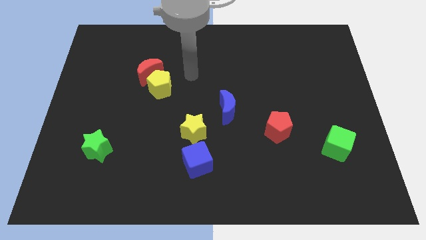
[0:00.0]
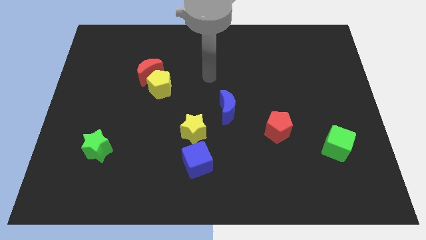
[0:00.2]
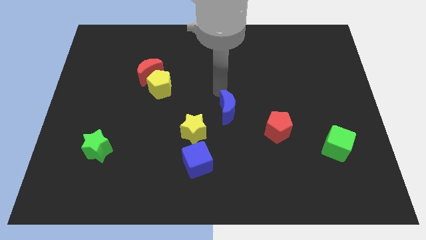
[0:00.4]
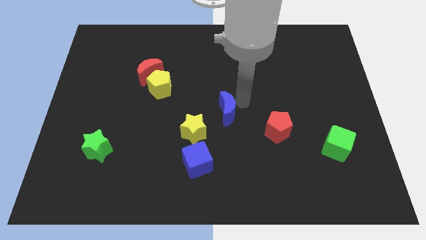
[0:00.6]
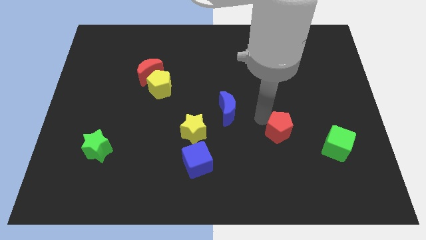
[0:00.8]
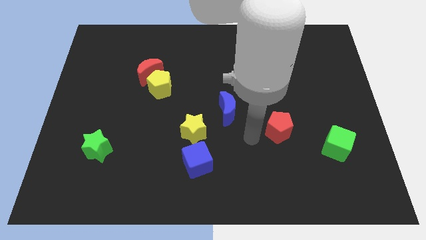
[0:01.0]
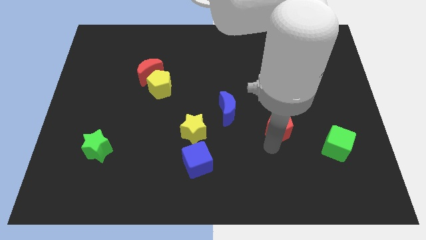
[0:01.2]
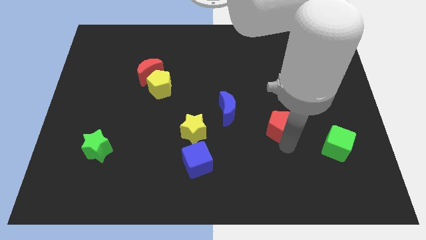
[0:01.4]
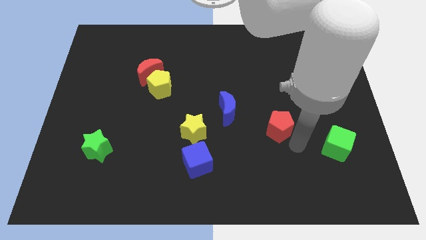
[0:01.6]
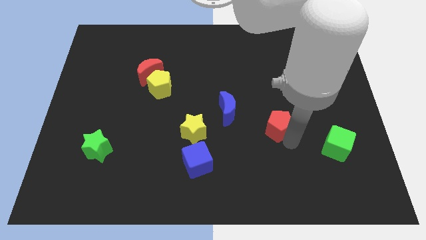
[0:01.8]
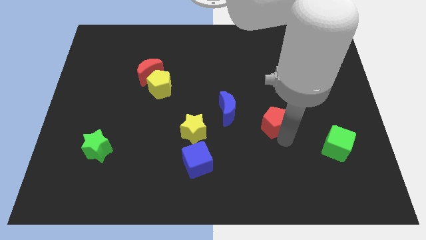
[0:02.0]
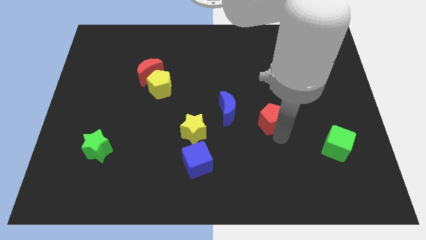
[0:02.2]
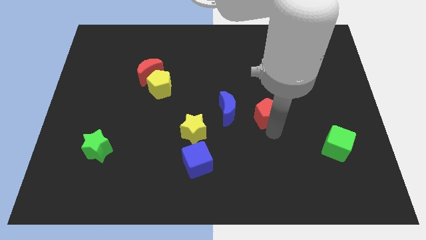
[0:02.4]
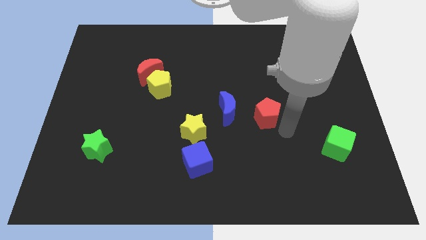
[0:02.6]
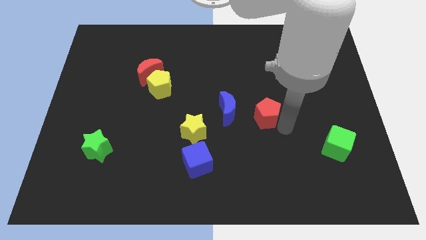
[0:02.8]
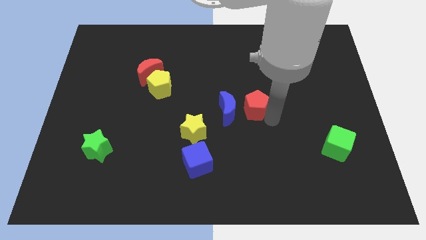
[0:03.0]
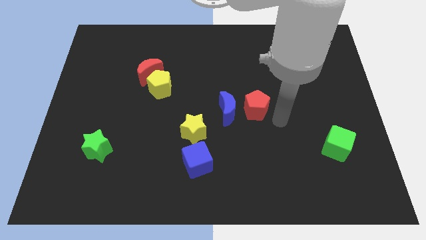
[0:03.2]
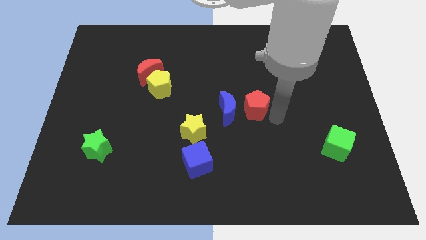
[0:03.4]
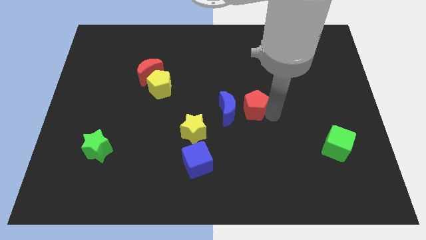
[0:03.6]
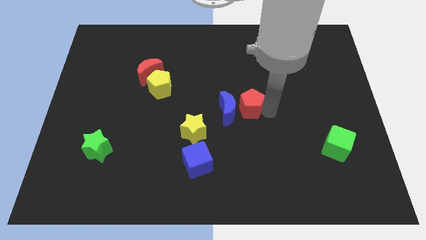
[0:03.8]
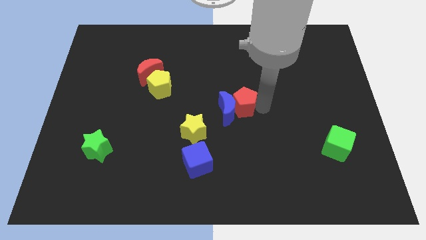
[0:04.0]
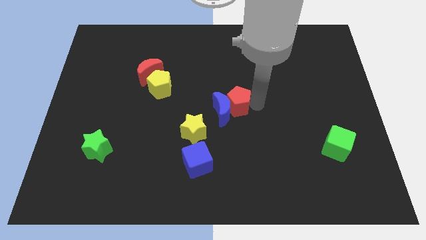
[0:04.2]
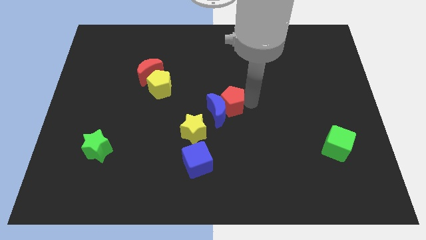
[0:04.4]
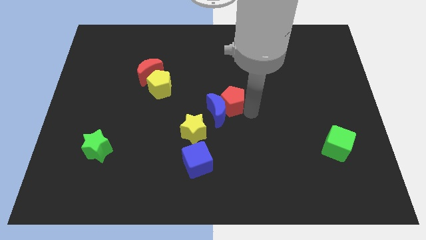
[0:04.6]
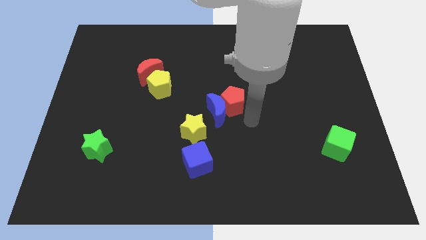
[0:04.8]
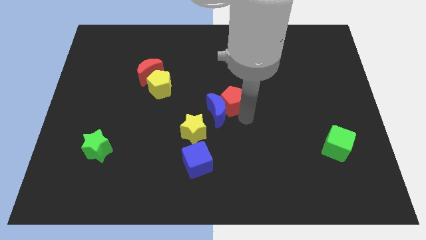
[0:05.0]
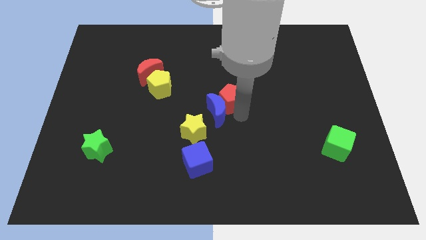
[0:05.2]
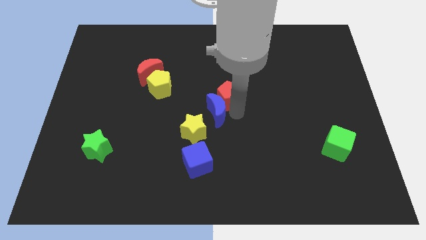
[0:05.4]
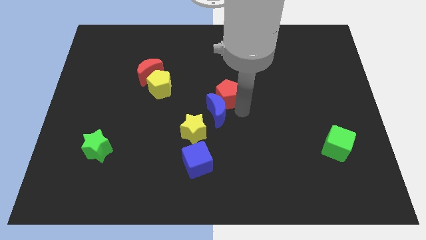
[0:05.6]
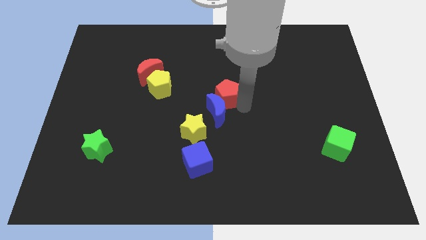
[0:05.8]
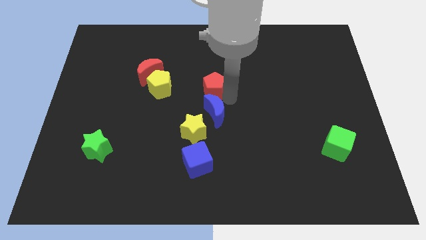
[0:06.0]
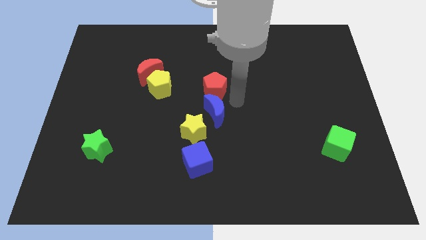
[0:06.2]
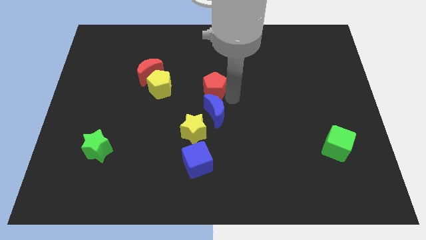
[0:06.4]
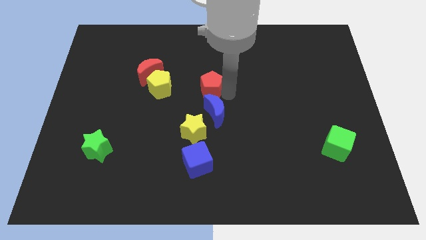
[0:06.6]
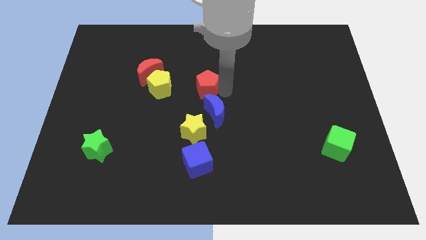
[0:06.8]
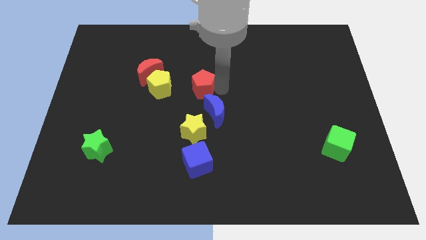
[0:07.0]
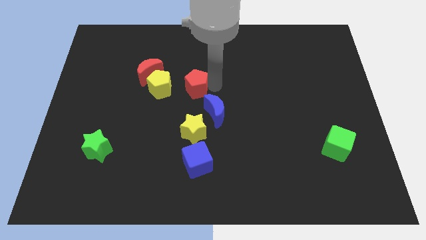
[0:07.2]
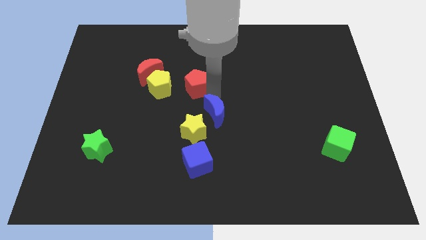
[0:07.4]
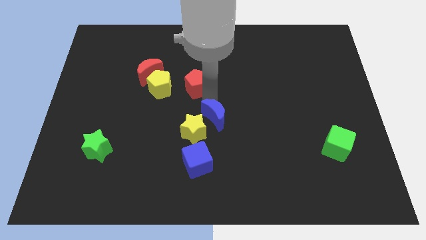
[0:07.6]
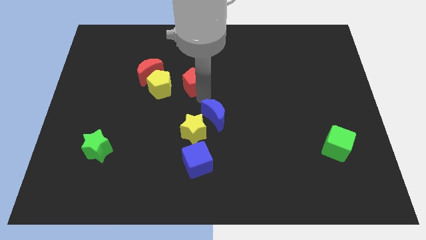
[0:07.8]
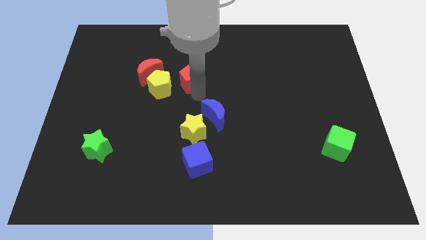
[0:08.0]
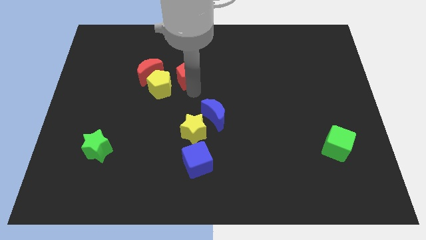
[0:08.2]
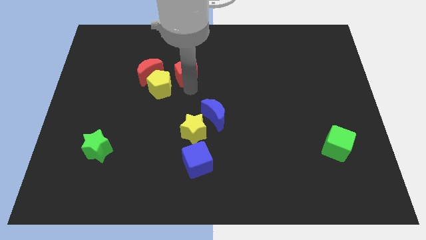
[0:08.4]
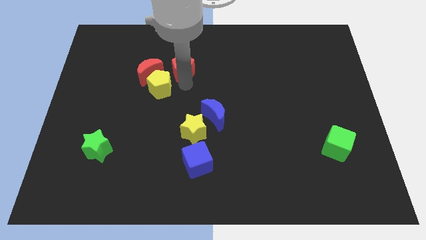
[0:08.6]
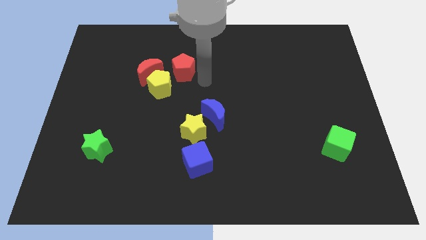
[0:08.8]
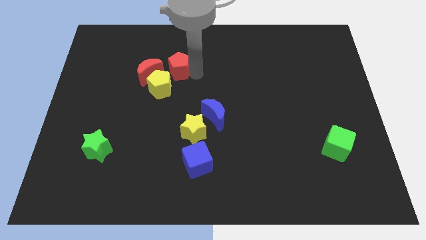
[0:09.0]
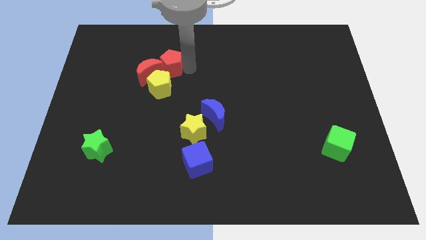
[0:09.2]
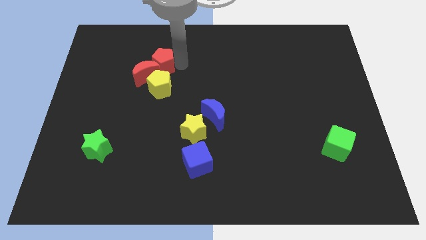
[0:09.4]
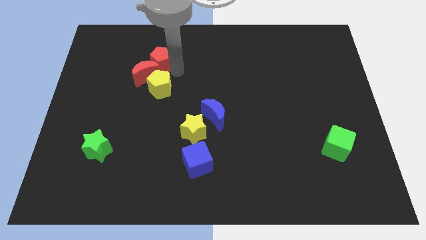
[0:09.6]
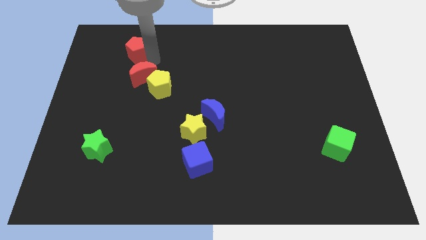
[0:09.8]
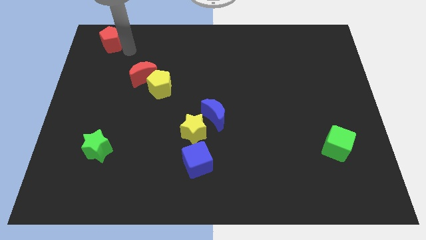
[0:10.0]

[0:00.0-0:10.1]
slide the red pentagon to the top left

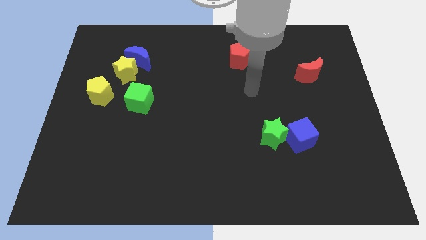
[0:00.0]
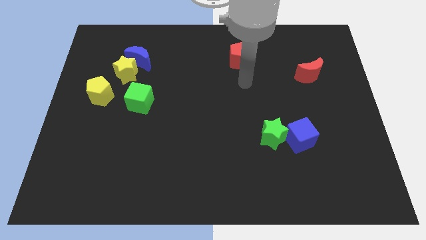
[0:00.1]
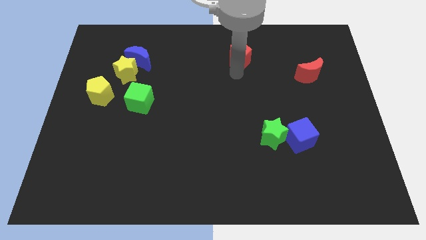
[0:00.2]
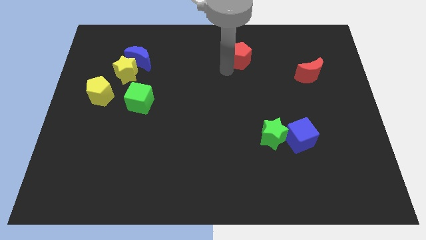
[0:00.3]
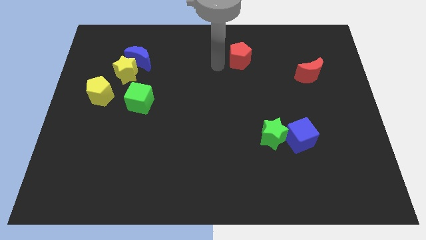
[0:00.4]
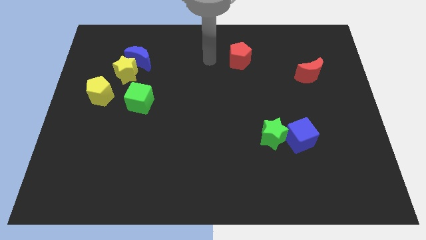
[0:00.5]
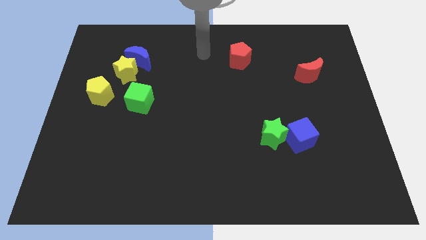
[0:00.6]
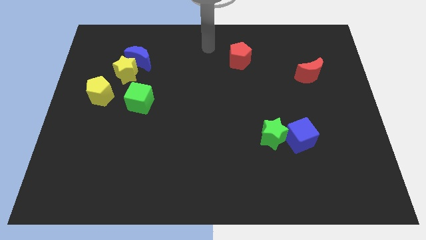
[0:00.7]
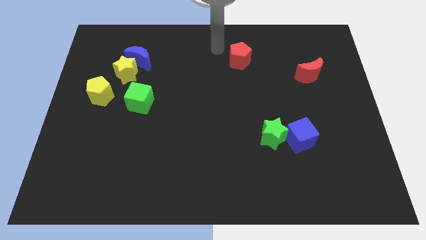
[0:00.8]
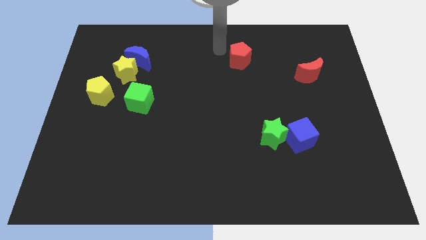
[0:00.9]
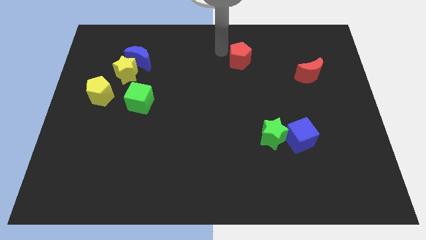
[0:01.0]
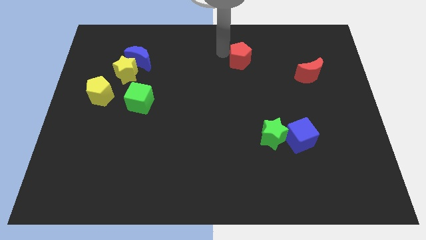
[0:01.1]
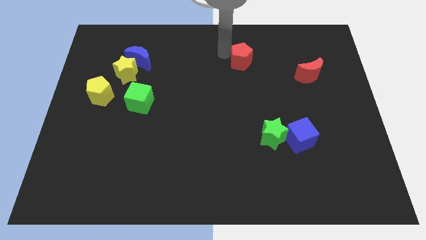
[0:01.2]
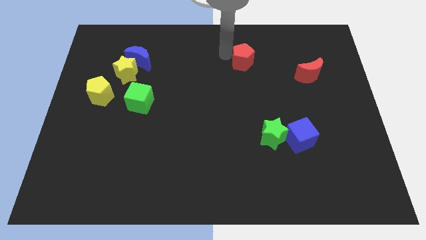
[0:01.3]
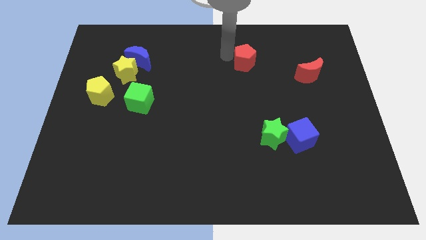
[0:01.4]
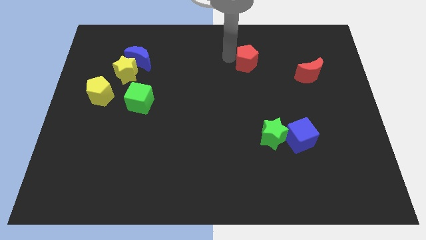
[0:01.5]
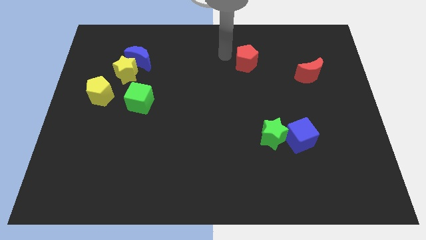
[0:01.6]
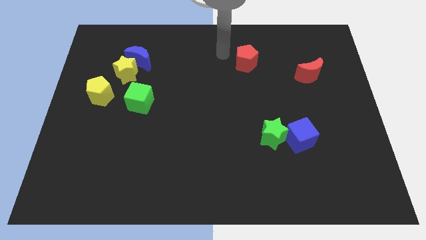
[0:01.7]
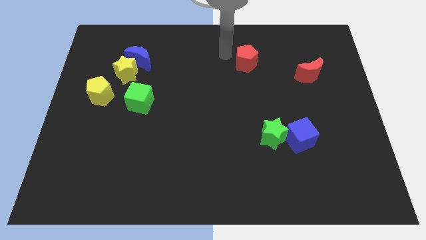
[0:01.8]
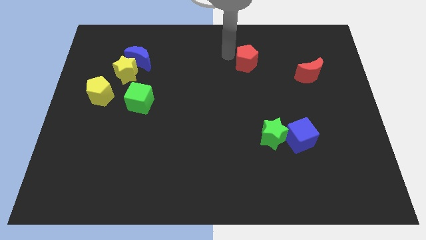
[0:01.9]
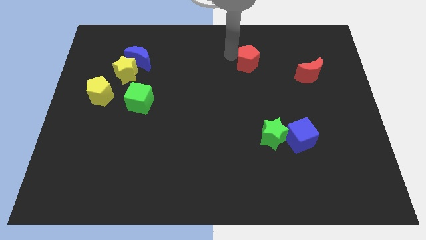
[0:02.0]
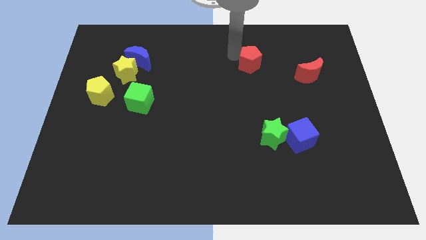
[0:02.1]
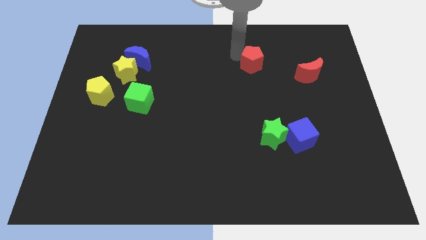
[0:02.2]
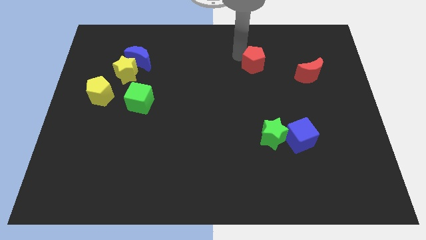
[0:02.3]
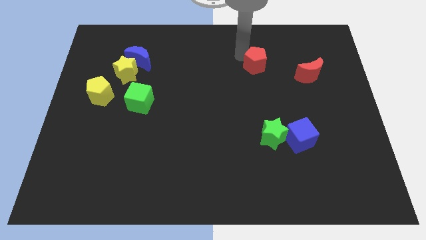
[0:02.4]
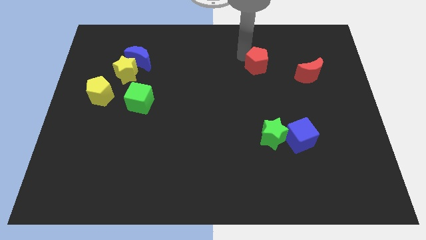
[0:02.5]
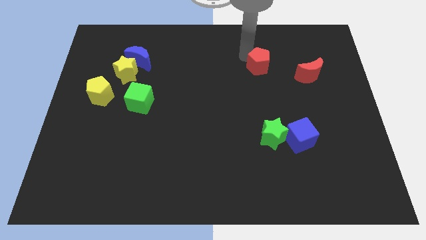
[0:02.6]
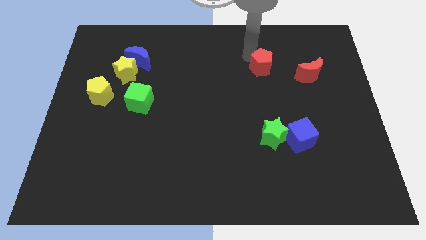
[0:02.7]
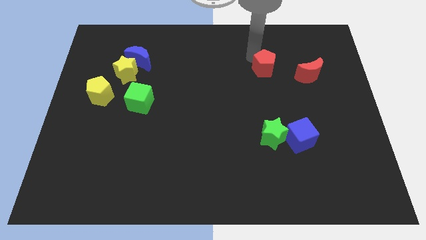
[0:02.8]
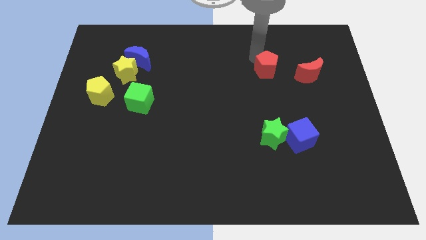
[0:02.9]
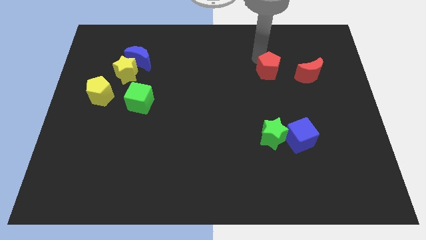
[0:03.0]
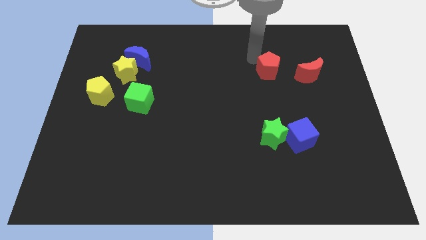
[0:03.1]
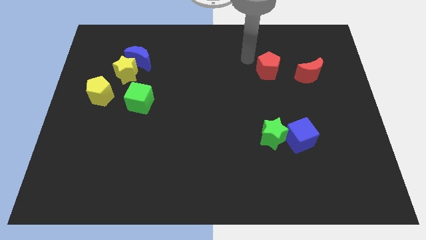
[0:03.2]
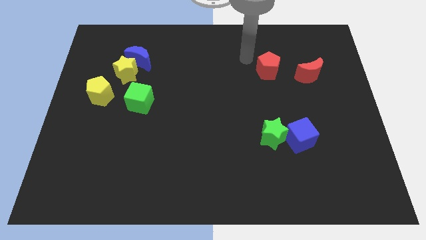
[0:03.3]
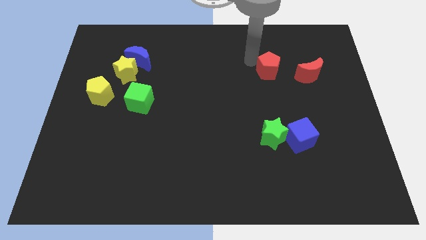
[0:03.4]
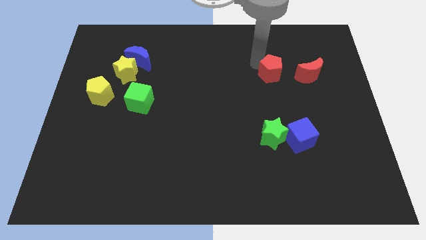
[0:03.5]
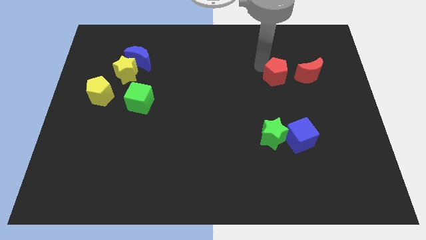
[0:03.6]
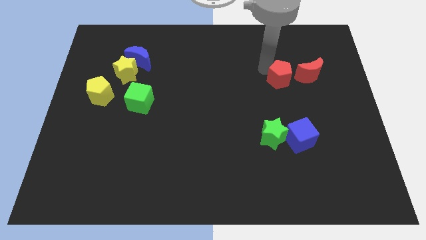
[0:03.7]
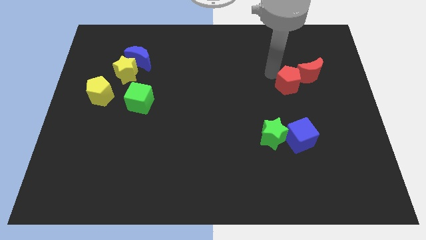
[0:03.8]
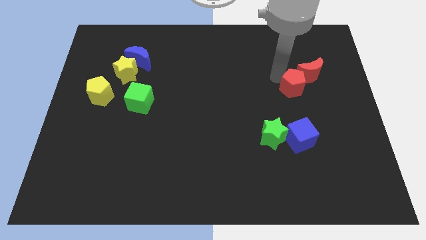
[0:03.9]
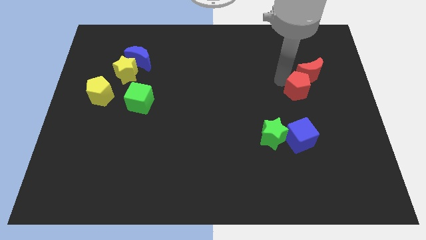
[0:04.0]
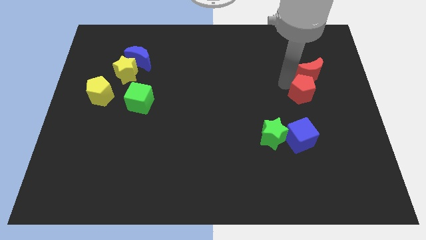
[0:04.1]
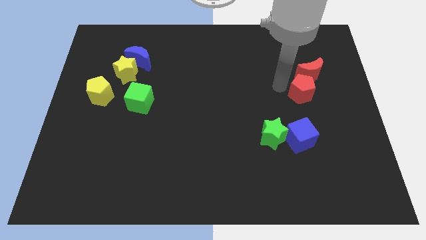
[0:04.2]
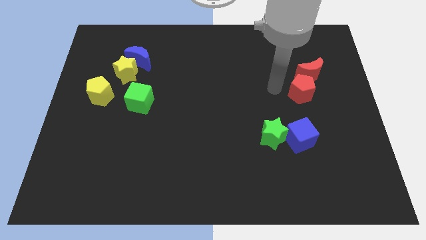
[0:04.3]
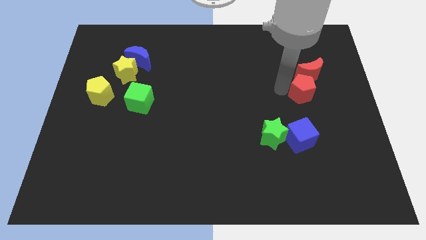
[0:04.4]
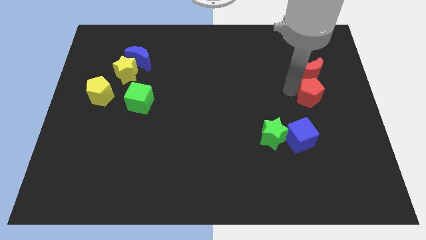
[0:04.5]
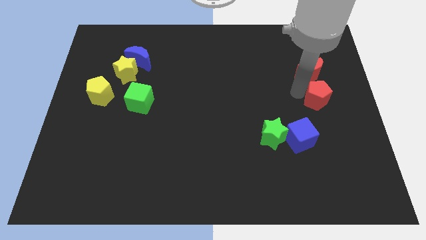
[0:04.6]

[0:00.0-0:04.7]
put the red pentagon to the center right
